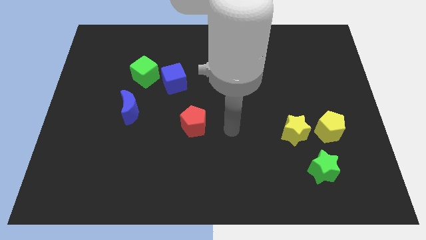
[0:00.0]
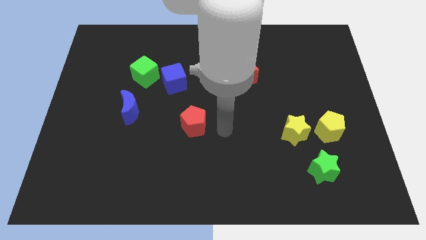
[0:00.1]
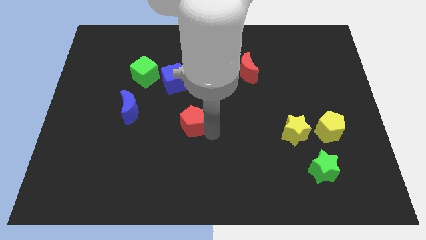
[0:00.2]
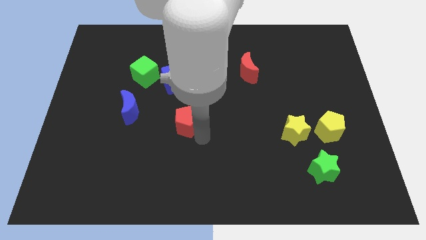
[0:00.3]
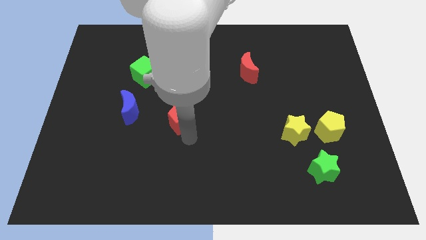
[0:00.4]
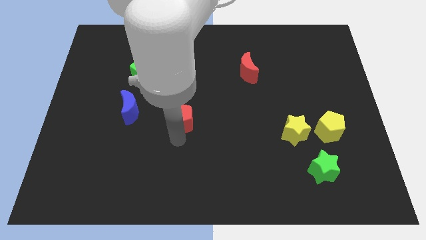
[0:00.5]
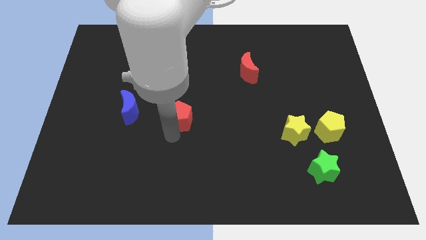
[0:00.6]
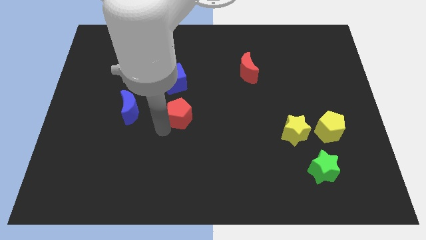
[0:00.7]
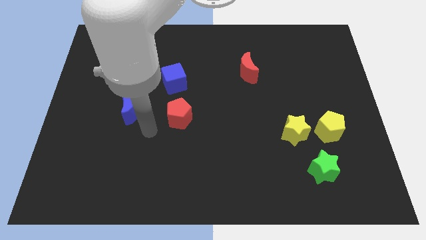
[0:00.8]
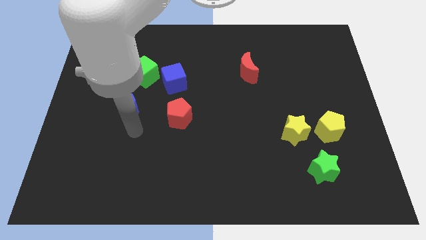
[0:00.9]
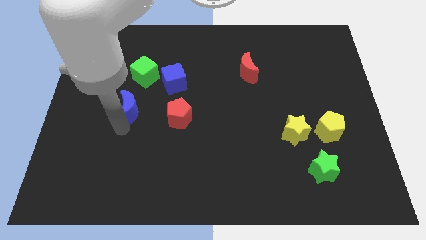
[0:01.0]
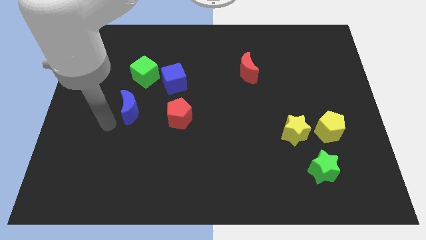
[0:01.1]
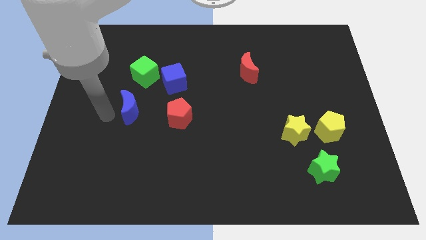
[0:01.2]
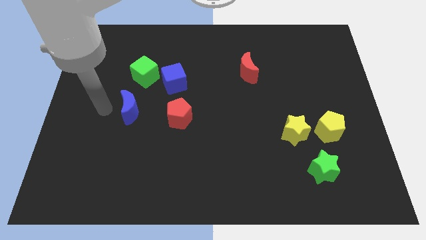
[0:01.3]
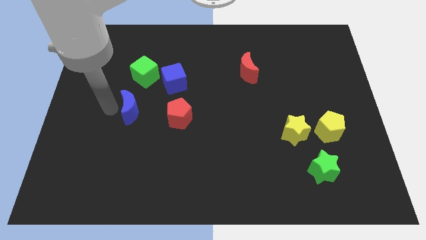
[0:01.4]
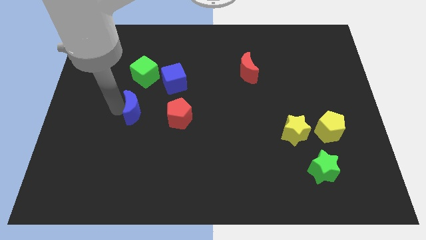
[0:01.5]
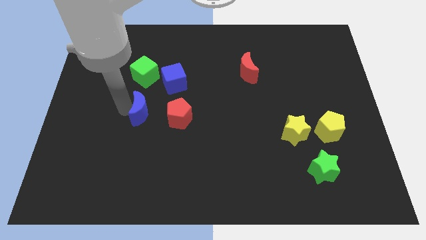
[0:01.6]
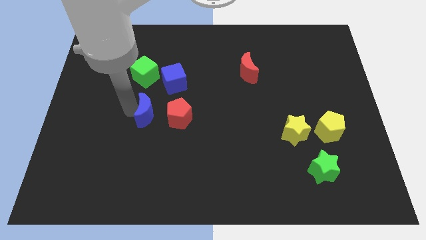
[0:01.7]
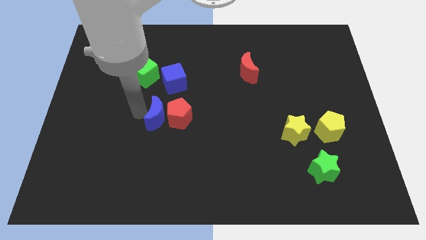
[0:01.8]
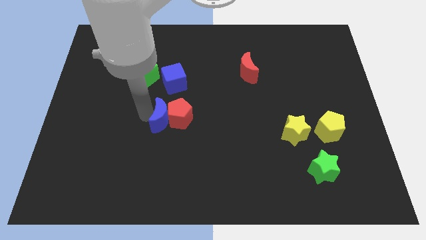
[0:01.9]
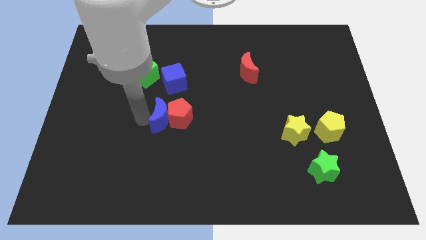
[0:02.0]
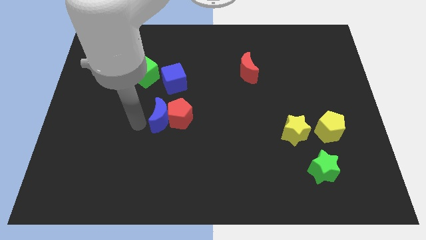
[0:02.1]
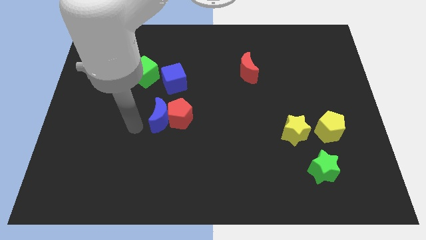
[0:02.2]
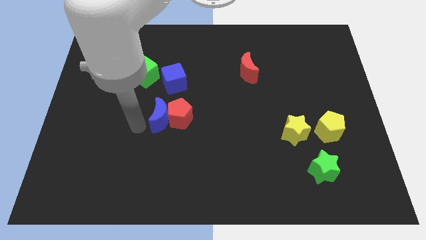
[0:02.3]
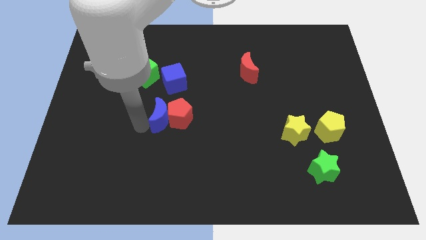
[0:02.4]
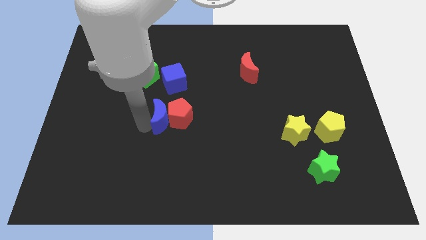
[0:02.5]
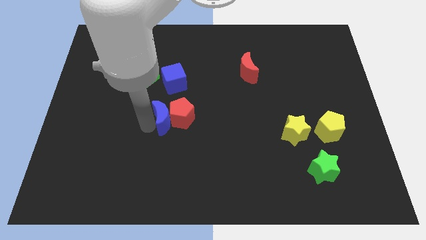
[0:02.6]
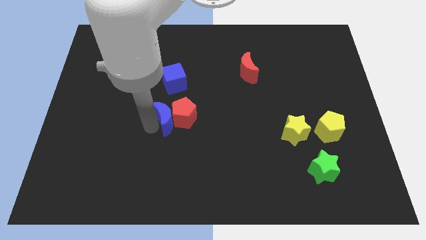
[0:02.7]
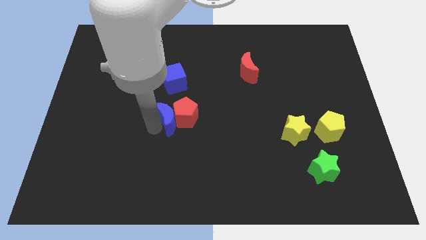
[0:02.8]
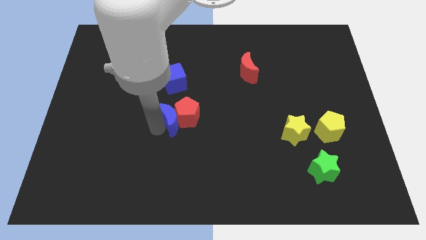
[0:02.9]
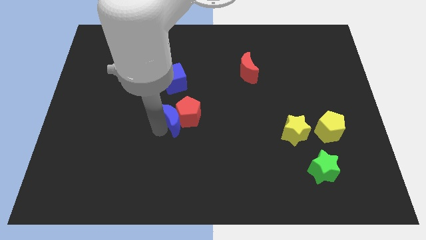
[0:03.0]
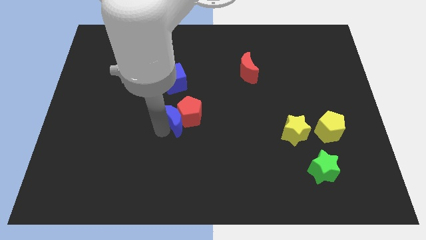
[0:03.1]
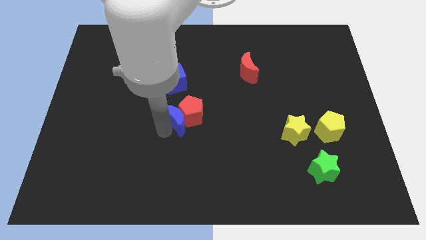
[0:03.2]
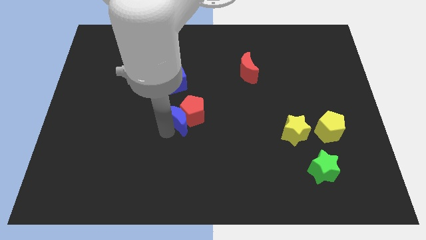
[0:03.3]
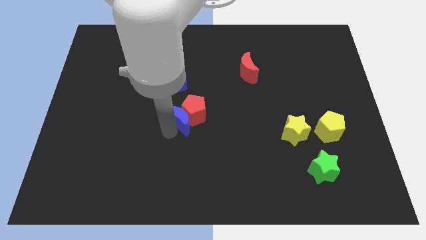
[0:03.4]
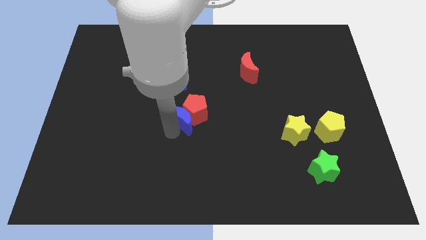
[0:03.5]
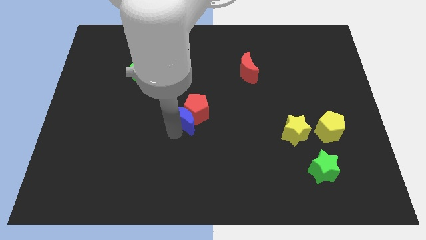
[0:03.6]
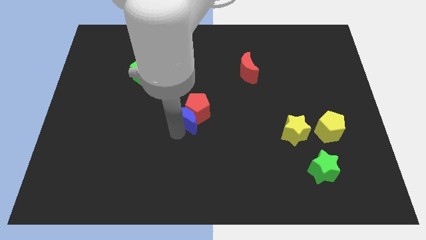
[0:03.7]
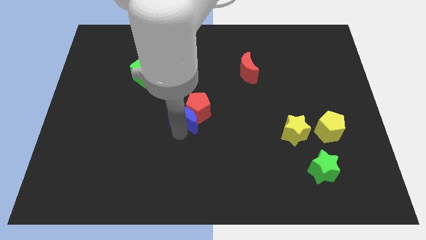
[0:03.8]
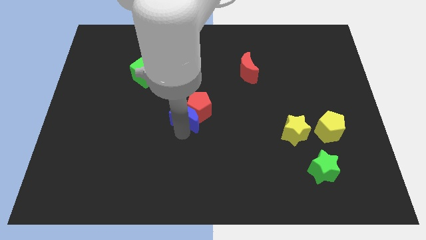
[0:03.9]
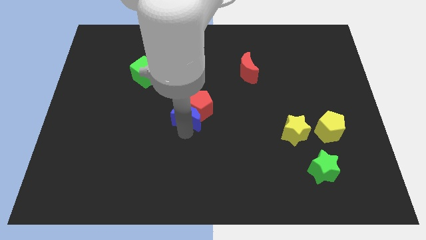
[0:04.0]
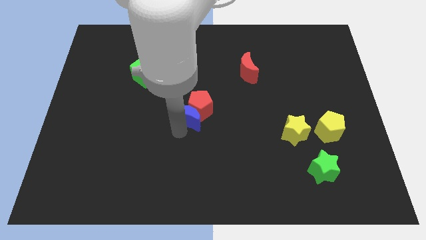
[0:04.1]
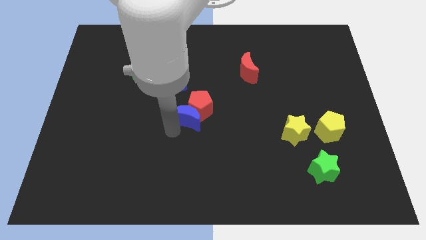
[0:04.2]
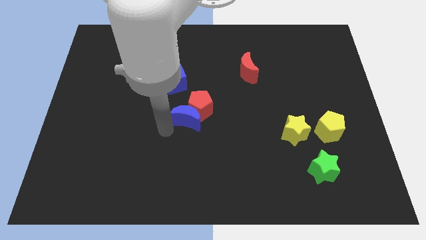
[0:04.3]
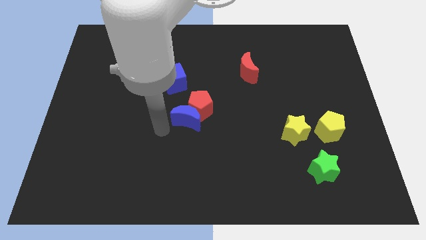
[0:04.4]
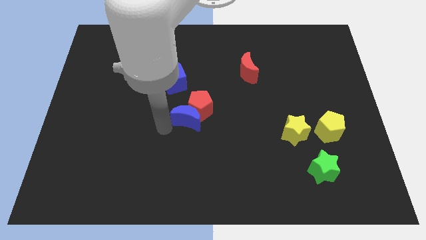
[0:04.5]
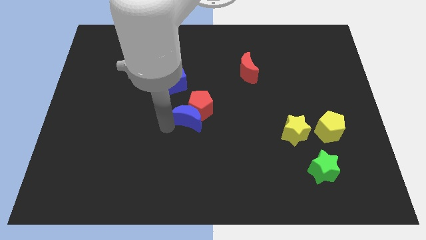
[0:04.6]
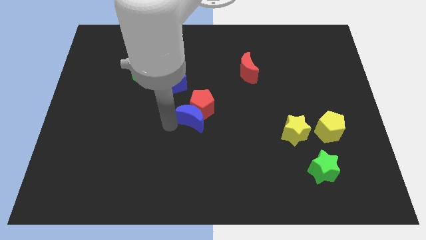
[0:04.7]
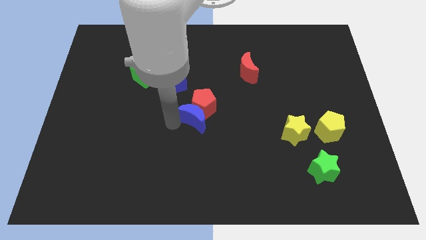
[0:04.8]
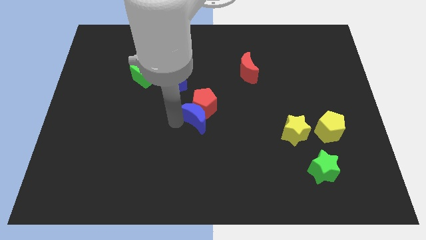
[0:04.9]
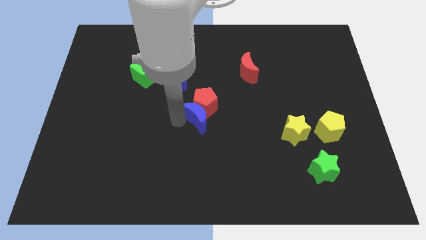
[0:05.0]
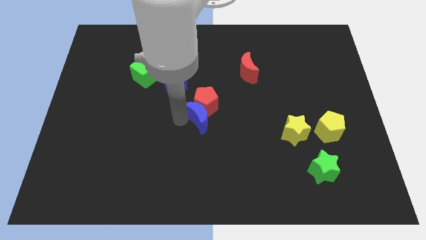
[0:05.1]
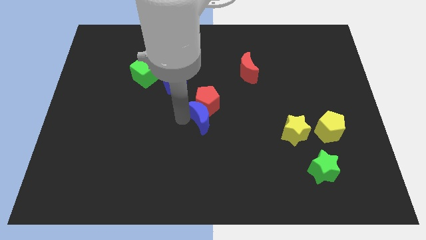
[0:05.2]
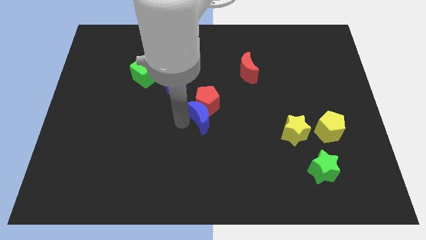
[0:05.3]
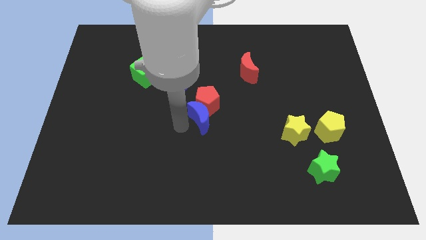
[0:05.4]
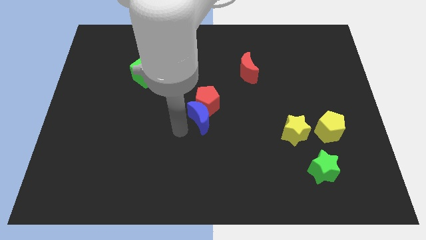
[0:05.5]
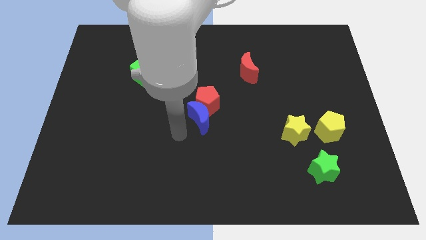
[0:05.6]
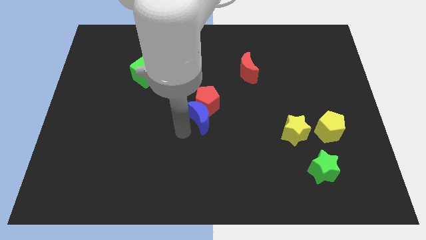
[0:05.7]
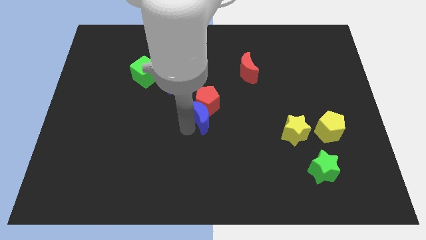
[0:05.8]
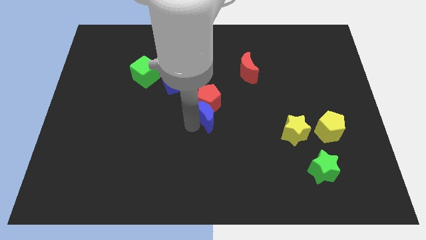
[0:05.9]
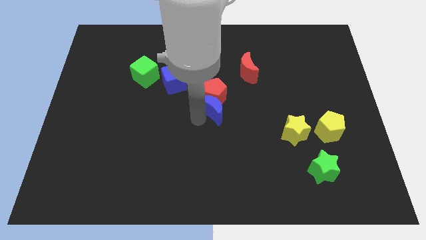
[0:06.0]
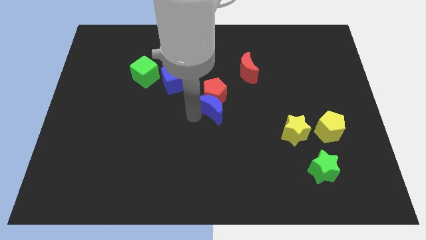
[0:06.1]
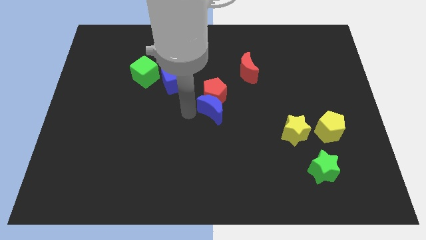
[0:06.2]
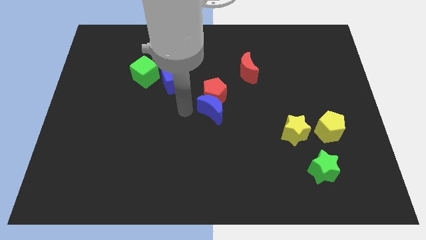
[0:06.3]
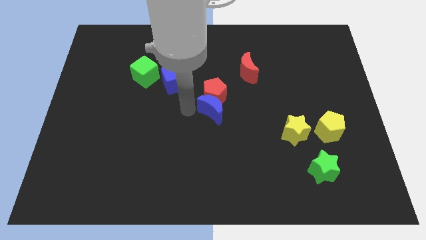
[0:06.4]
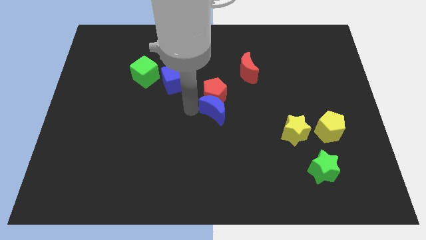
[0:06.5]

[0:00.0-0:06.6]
move the blue moon to the right

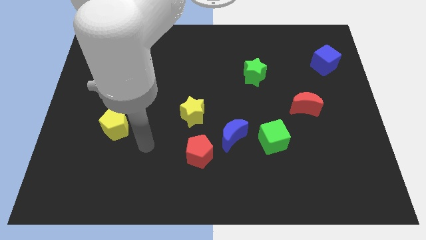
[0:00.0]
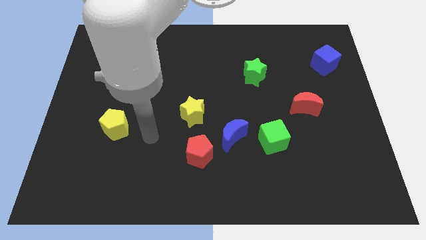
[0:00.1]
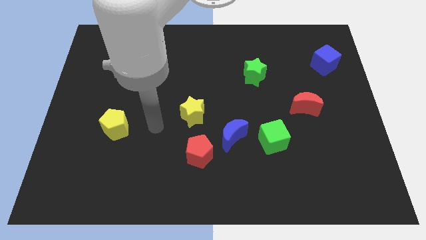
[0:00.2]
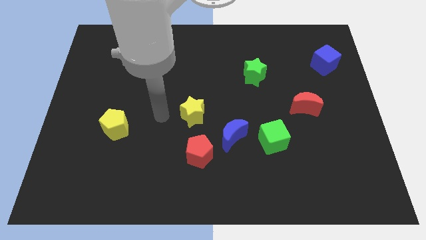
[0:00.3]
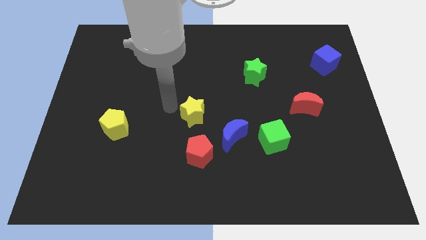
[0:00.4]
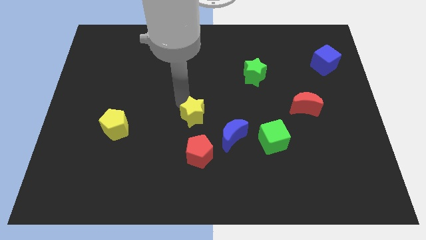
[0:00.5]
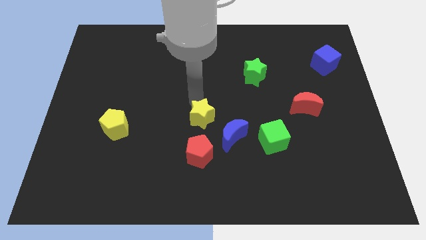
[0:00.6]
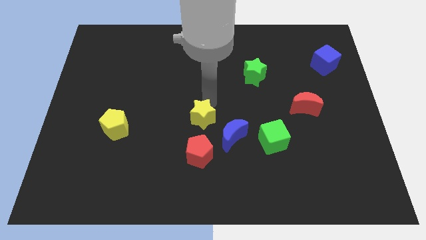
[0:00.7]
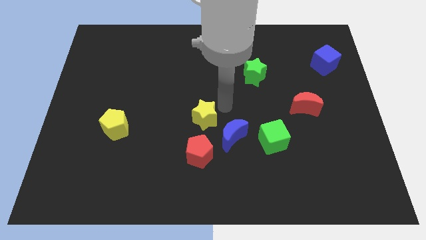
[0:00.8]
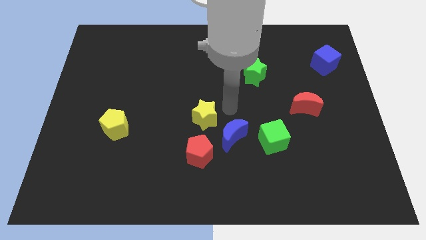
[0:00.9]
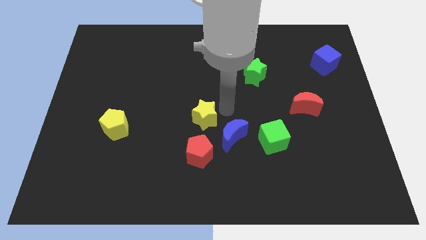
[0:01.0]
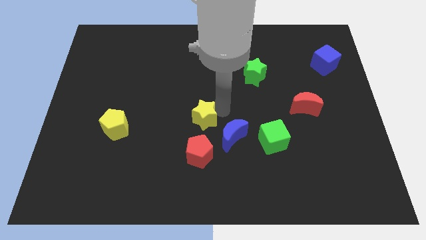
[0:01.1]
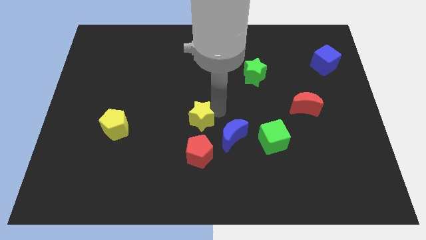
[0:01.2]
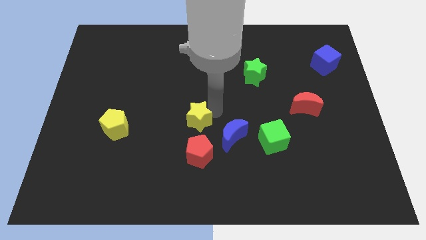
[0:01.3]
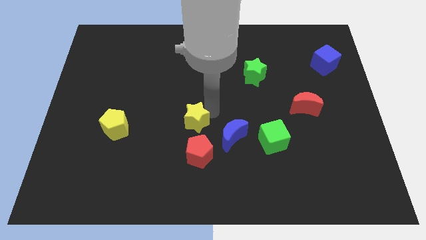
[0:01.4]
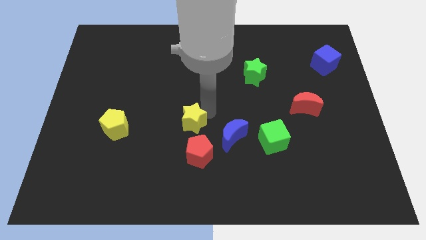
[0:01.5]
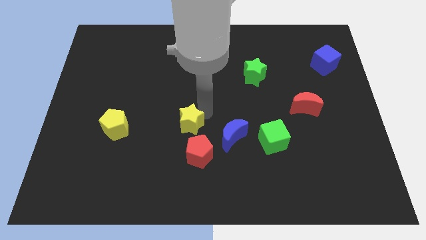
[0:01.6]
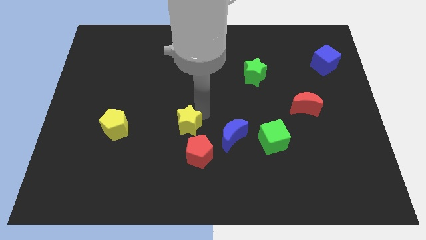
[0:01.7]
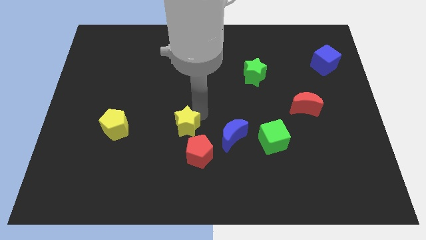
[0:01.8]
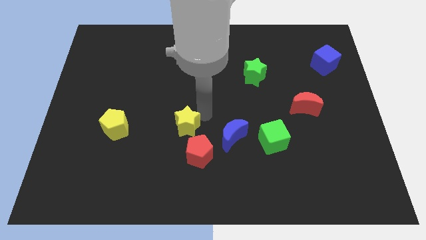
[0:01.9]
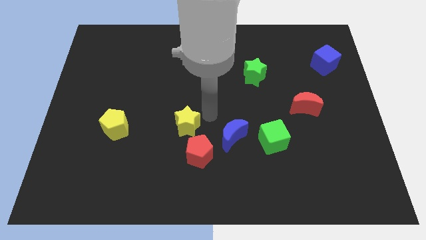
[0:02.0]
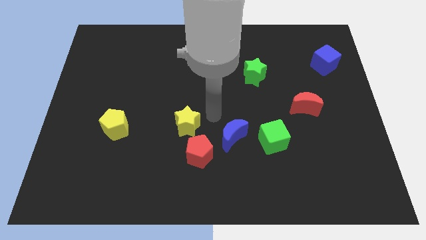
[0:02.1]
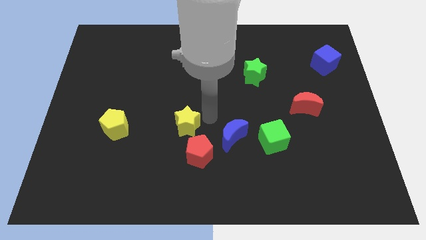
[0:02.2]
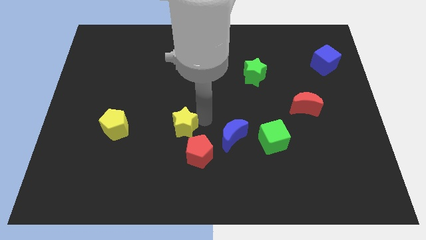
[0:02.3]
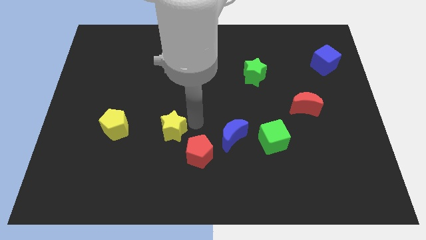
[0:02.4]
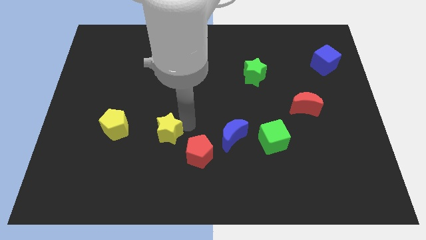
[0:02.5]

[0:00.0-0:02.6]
slightly push the yellow star downwards and to the left diagonally
